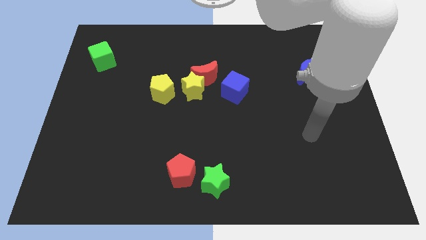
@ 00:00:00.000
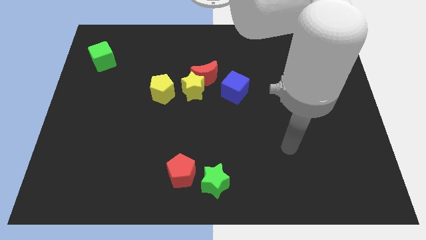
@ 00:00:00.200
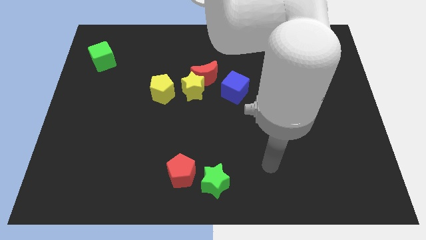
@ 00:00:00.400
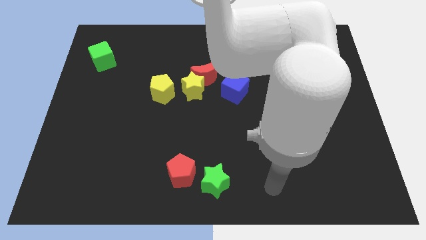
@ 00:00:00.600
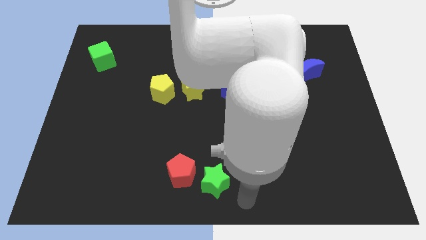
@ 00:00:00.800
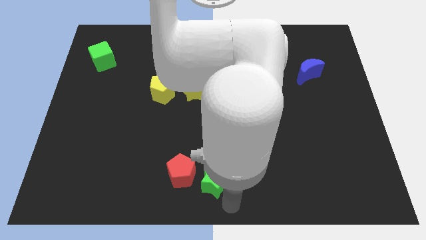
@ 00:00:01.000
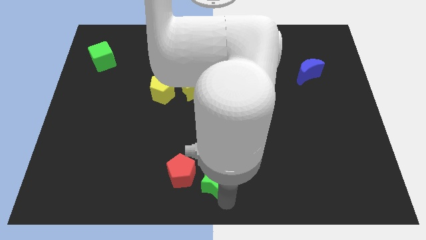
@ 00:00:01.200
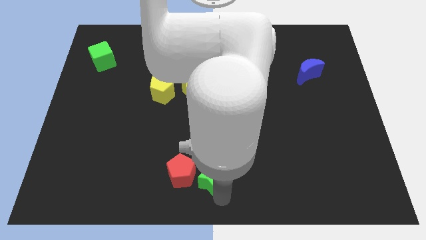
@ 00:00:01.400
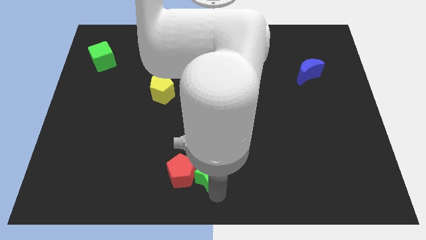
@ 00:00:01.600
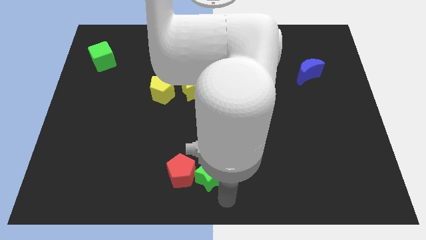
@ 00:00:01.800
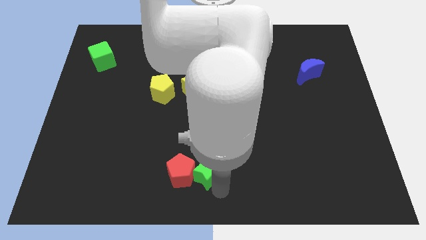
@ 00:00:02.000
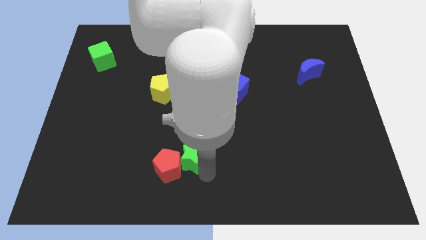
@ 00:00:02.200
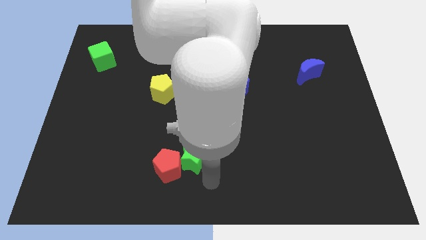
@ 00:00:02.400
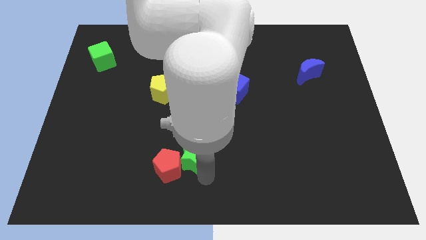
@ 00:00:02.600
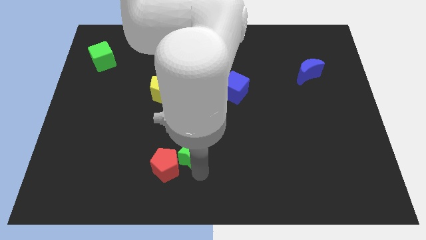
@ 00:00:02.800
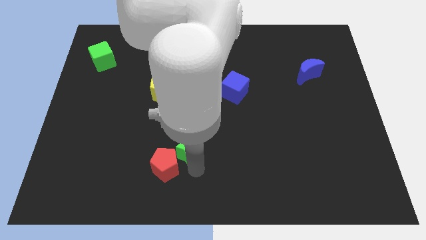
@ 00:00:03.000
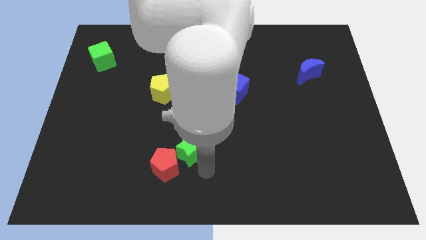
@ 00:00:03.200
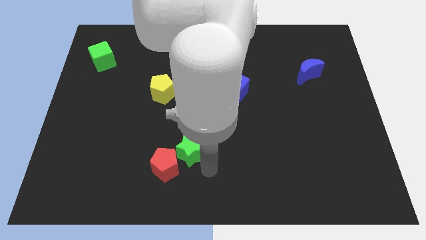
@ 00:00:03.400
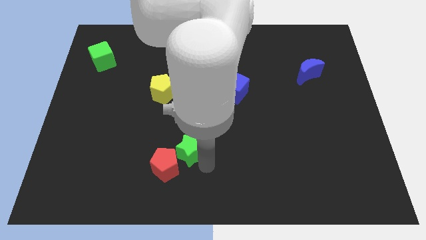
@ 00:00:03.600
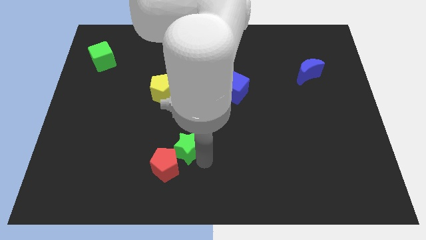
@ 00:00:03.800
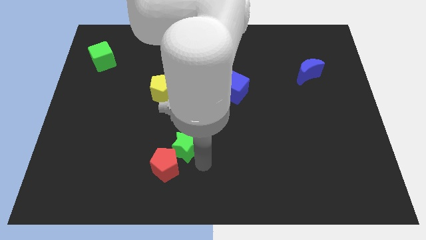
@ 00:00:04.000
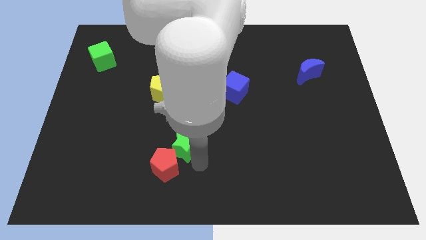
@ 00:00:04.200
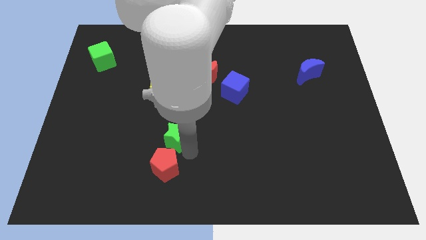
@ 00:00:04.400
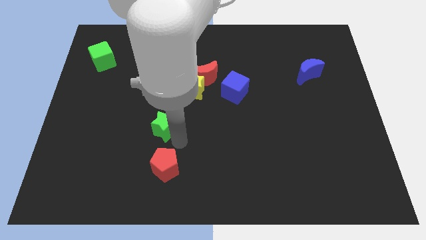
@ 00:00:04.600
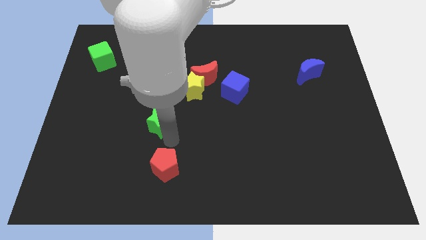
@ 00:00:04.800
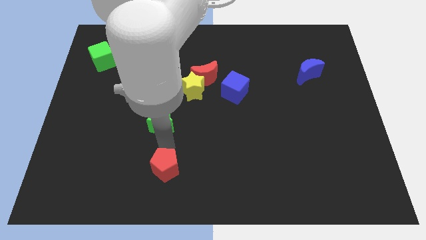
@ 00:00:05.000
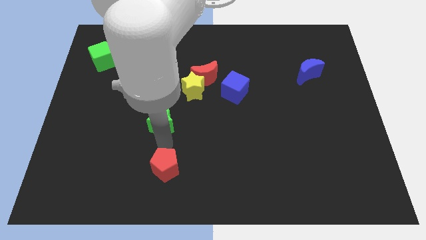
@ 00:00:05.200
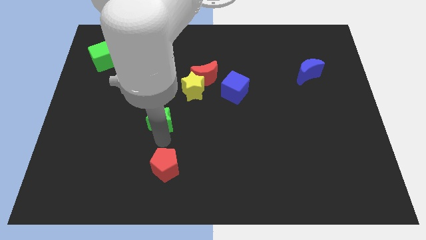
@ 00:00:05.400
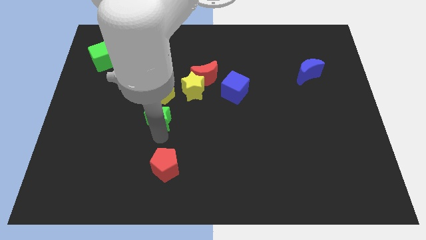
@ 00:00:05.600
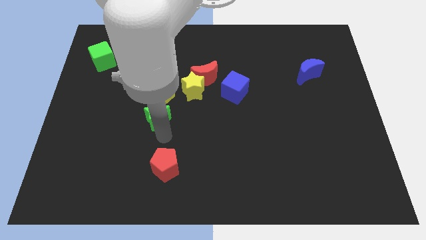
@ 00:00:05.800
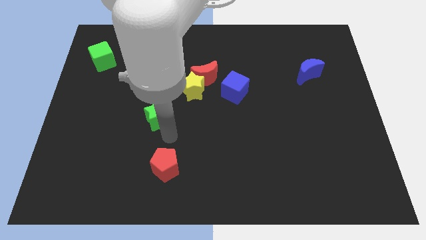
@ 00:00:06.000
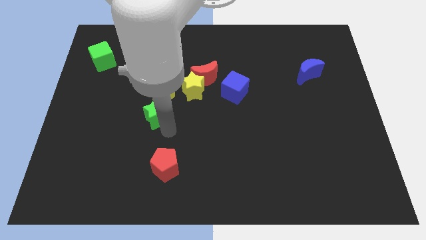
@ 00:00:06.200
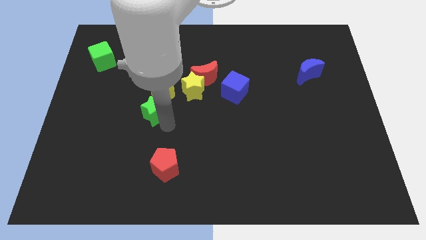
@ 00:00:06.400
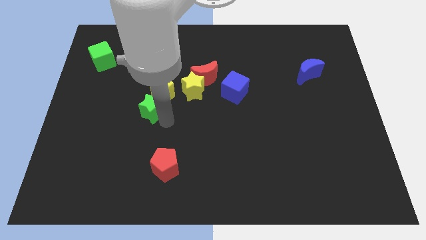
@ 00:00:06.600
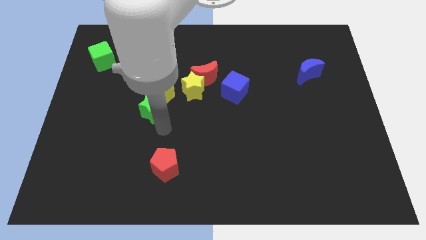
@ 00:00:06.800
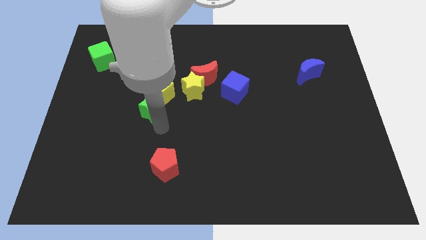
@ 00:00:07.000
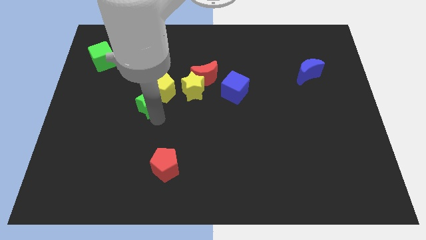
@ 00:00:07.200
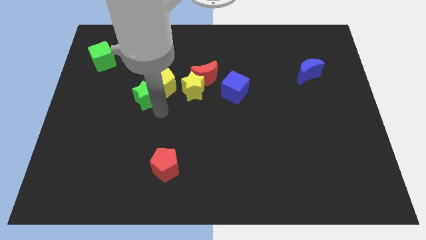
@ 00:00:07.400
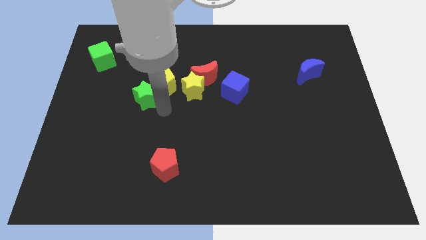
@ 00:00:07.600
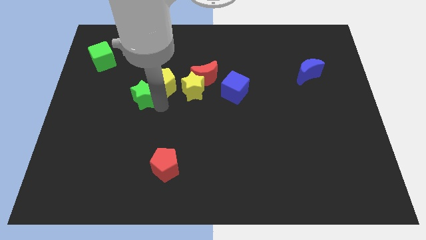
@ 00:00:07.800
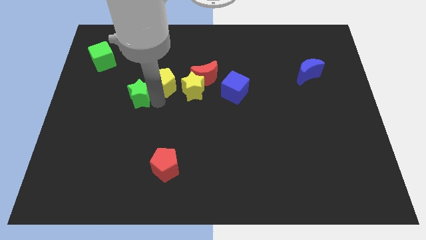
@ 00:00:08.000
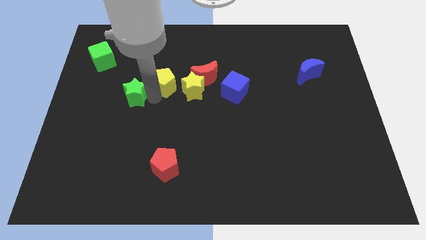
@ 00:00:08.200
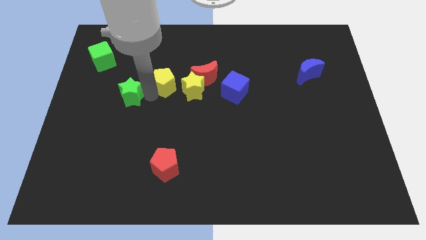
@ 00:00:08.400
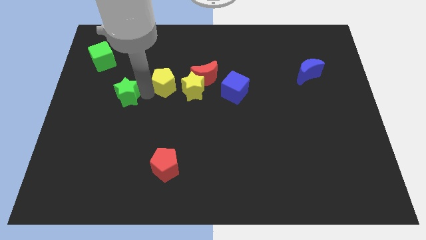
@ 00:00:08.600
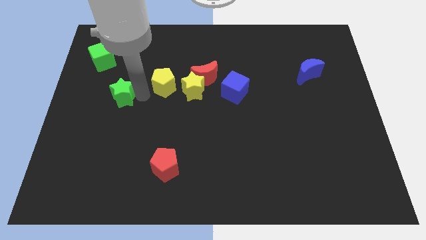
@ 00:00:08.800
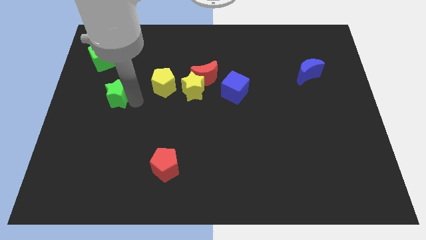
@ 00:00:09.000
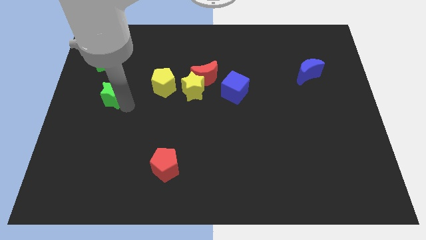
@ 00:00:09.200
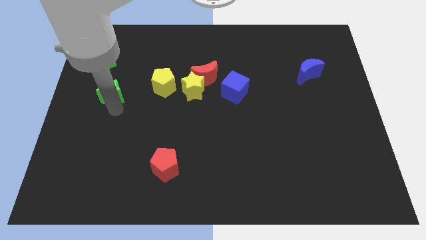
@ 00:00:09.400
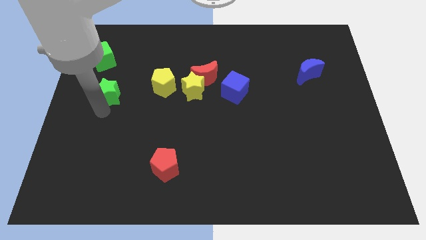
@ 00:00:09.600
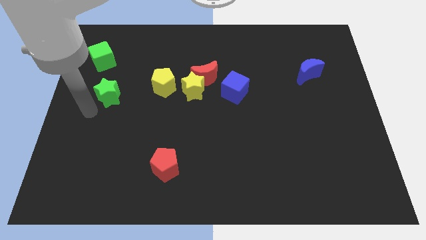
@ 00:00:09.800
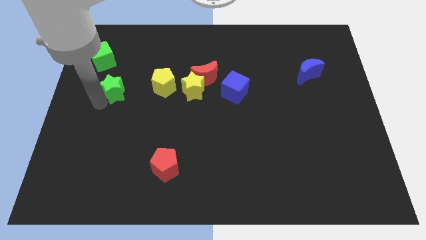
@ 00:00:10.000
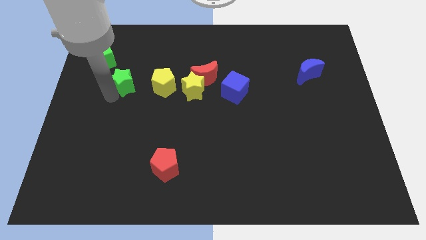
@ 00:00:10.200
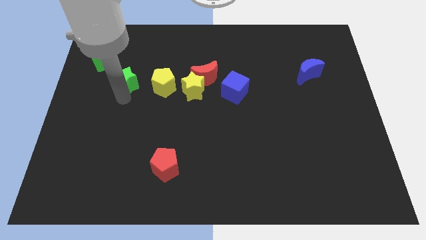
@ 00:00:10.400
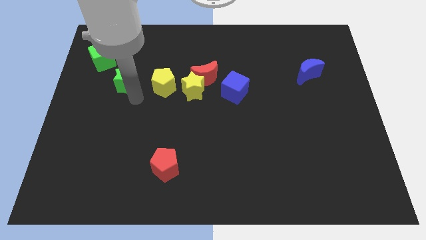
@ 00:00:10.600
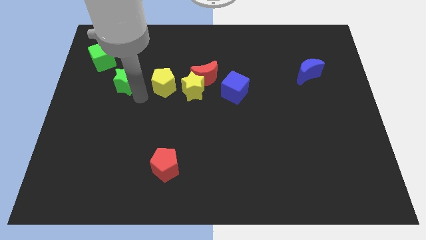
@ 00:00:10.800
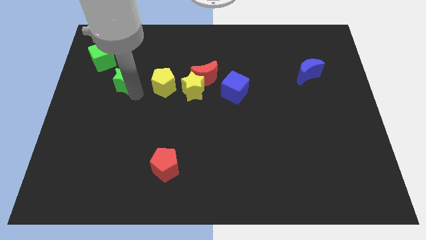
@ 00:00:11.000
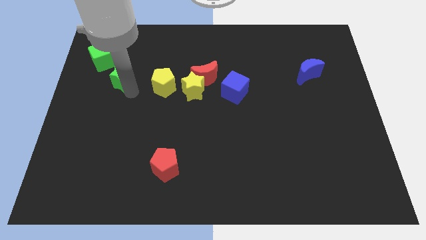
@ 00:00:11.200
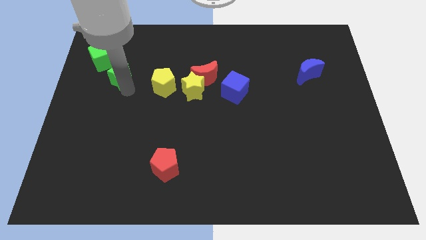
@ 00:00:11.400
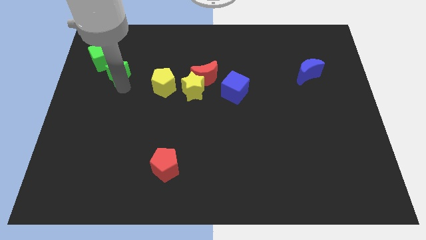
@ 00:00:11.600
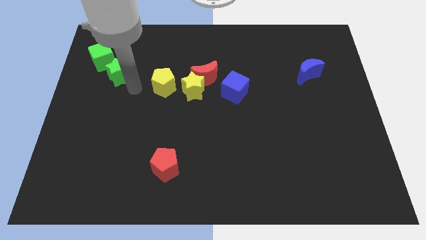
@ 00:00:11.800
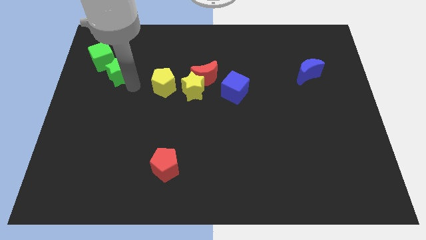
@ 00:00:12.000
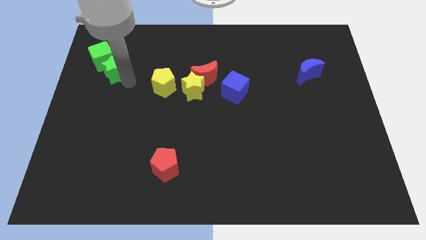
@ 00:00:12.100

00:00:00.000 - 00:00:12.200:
put the green star close to the green cube
